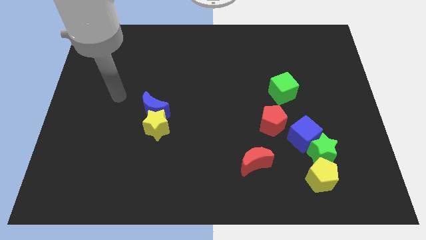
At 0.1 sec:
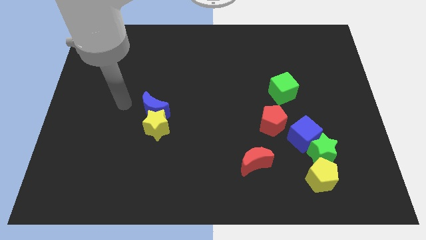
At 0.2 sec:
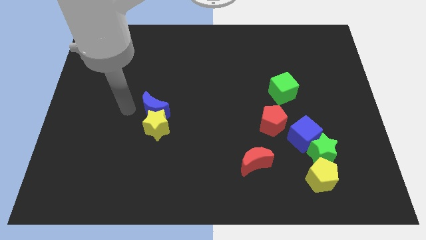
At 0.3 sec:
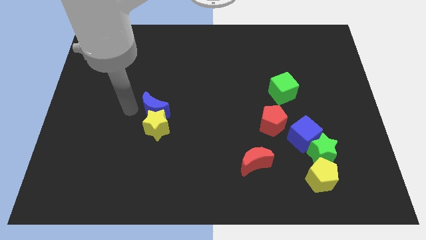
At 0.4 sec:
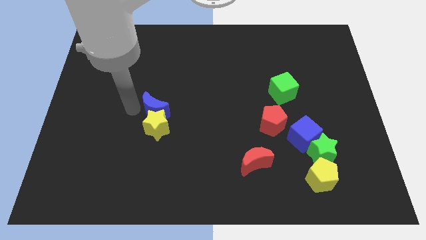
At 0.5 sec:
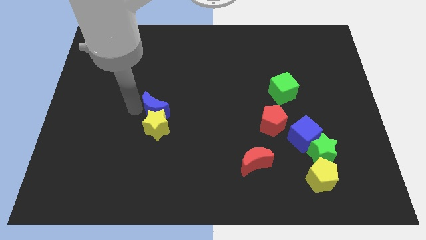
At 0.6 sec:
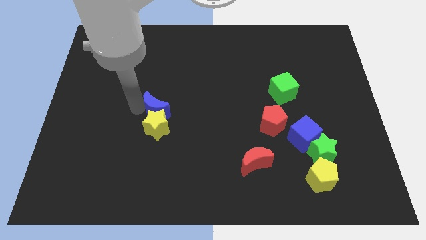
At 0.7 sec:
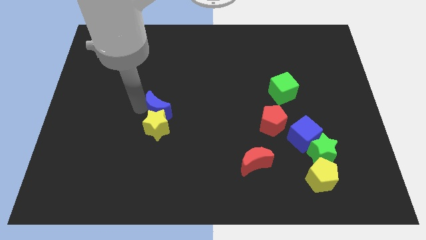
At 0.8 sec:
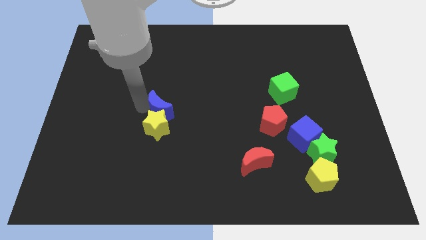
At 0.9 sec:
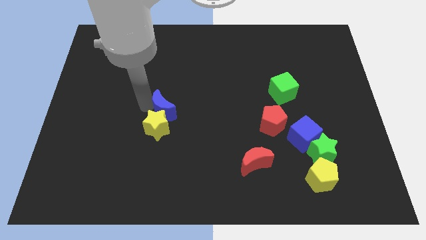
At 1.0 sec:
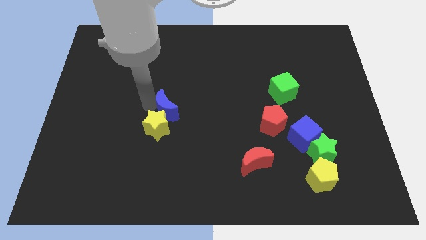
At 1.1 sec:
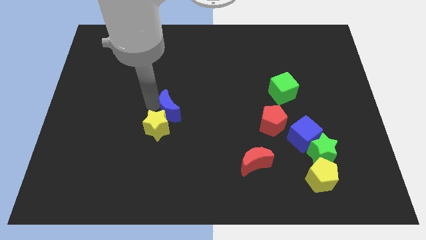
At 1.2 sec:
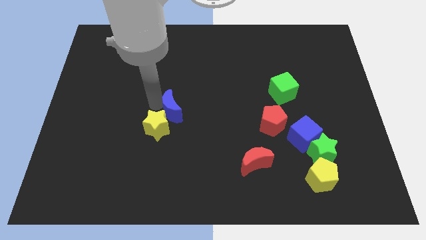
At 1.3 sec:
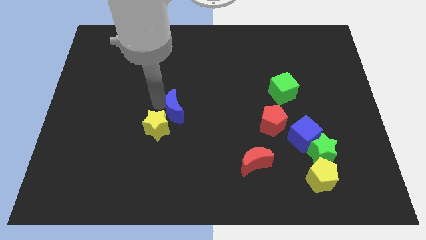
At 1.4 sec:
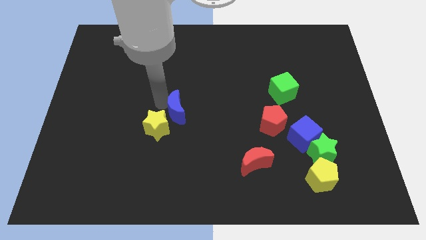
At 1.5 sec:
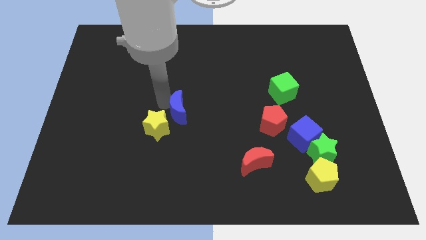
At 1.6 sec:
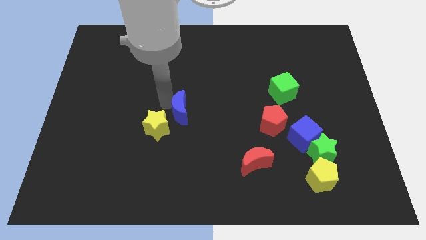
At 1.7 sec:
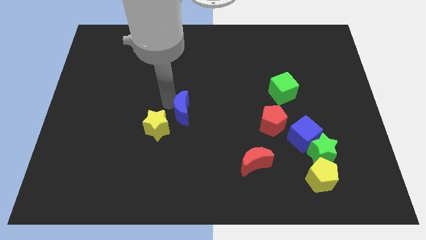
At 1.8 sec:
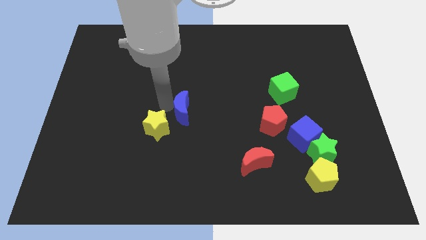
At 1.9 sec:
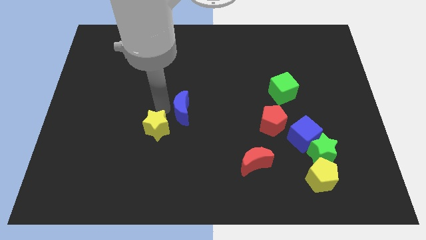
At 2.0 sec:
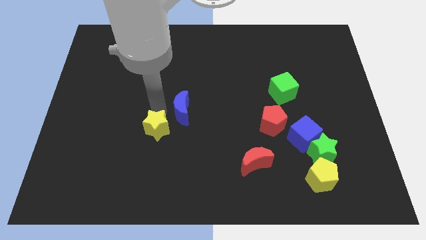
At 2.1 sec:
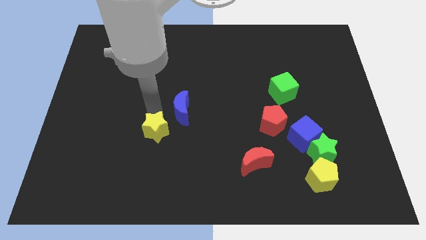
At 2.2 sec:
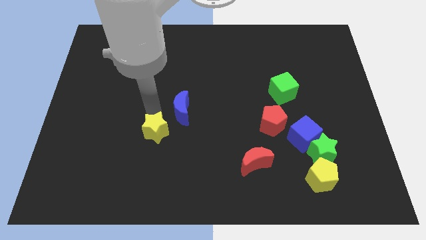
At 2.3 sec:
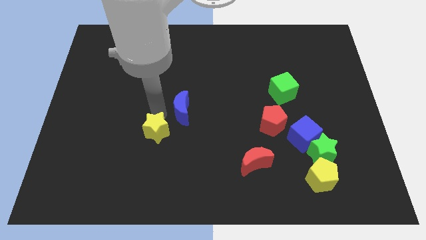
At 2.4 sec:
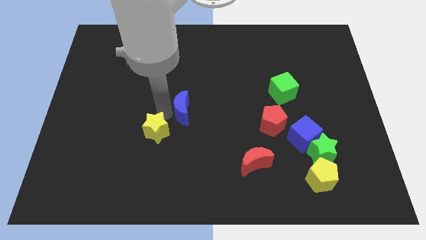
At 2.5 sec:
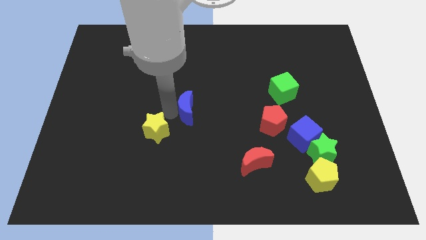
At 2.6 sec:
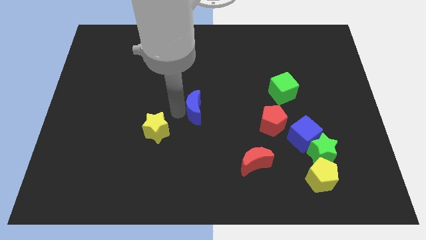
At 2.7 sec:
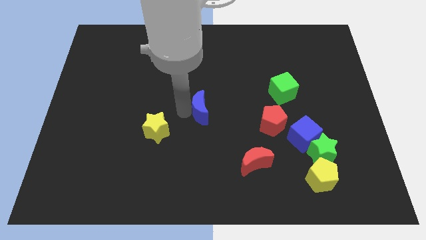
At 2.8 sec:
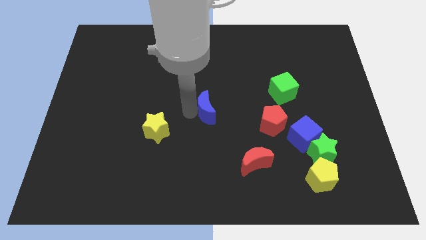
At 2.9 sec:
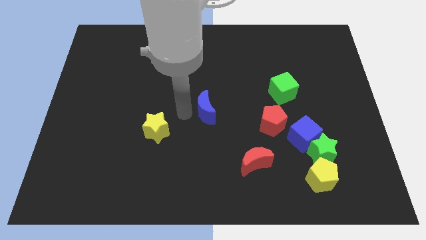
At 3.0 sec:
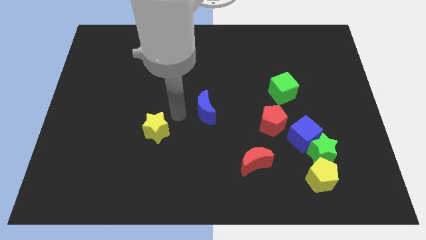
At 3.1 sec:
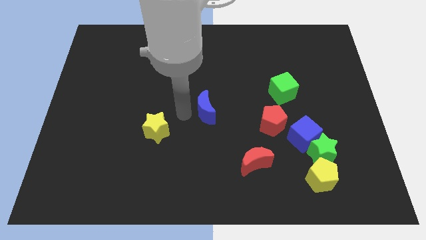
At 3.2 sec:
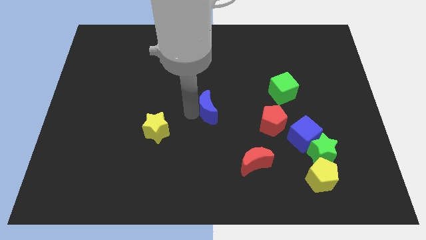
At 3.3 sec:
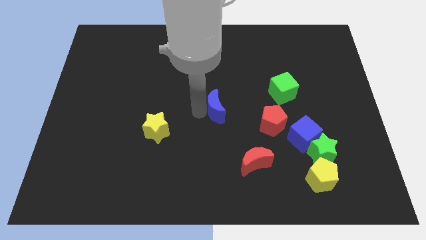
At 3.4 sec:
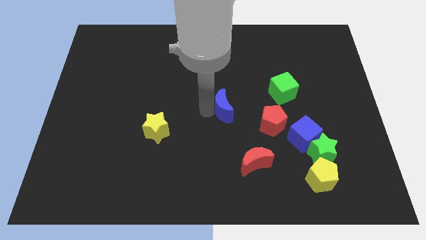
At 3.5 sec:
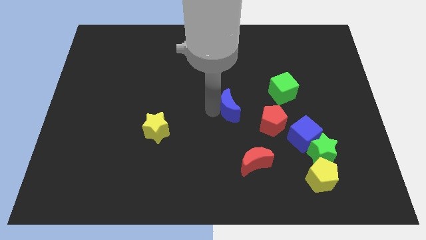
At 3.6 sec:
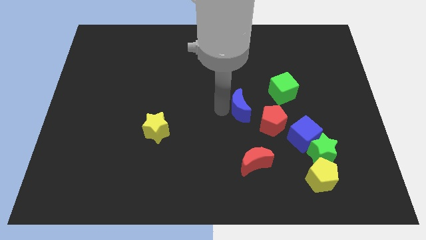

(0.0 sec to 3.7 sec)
push the blue moon right

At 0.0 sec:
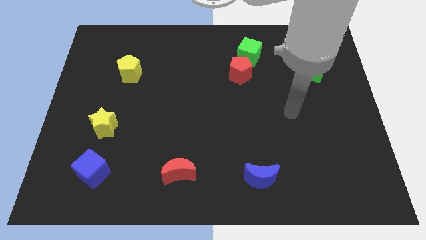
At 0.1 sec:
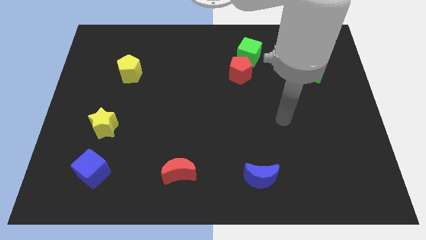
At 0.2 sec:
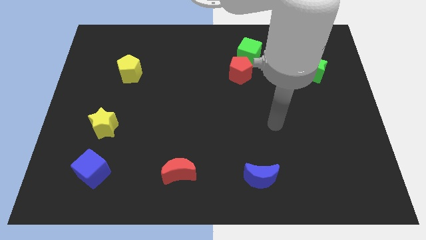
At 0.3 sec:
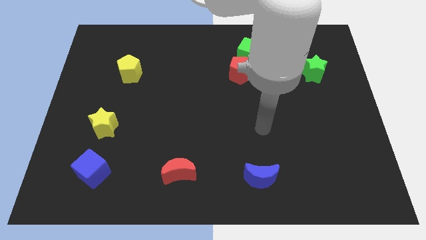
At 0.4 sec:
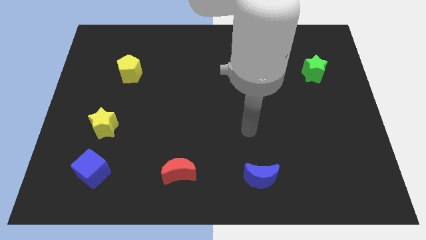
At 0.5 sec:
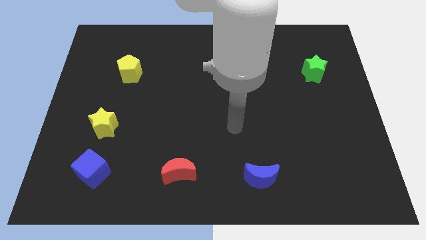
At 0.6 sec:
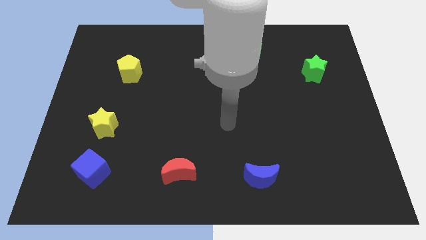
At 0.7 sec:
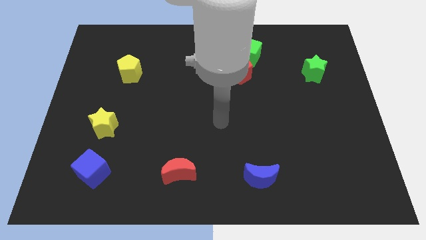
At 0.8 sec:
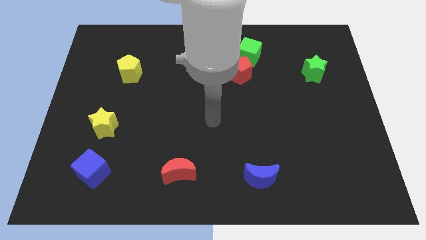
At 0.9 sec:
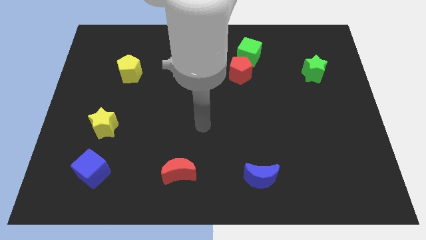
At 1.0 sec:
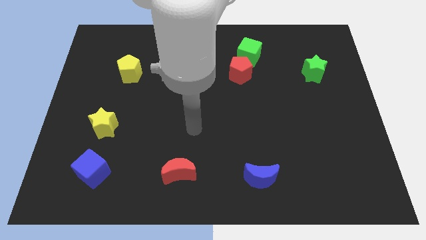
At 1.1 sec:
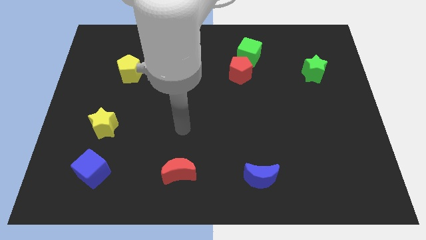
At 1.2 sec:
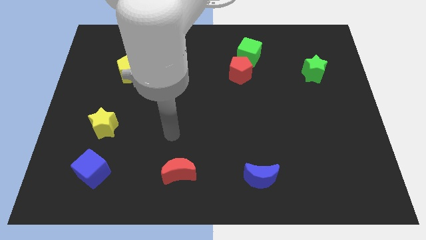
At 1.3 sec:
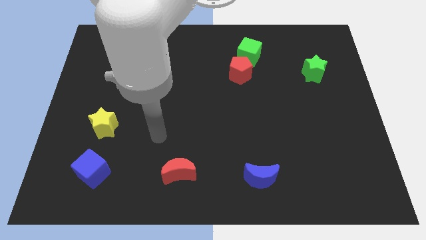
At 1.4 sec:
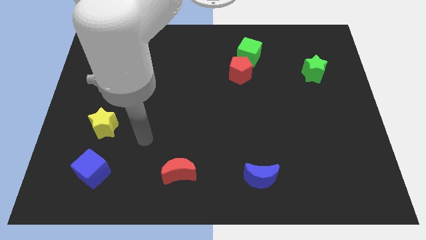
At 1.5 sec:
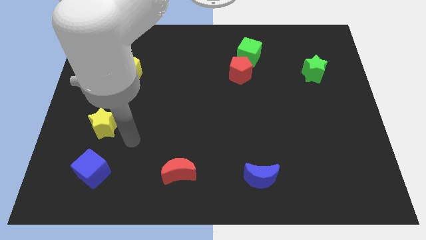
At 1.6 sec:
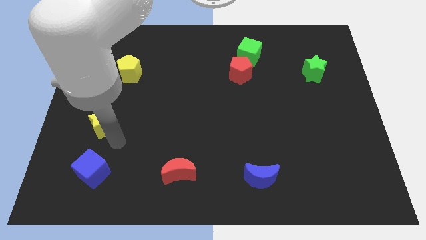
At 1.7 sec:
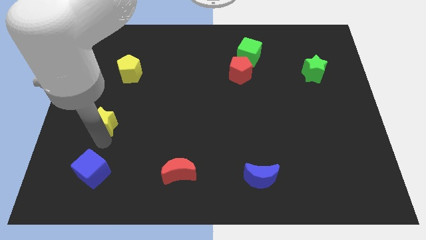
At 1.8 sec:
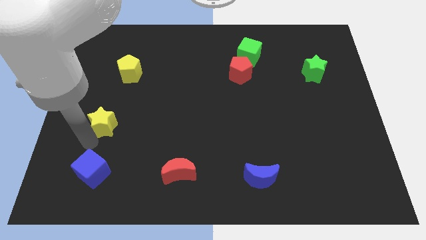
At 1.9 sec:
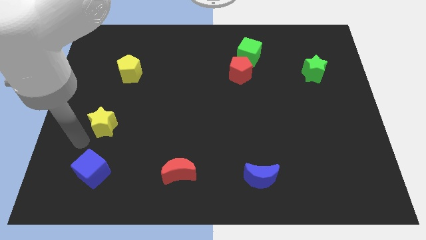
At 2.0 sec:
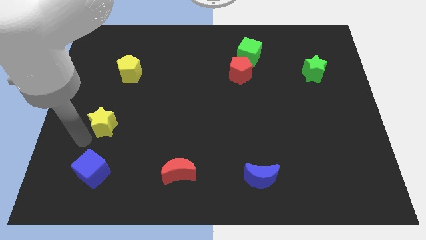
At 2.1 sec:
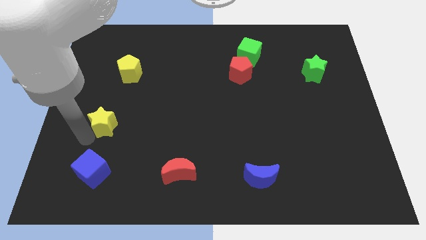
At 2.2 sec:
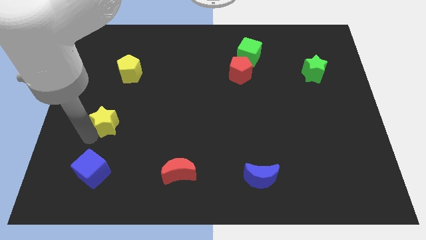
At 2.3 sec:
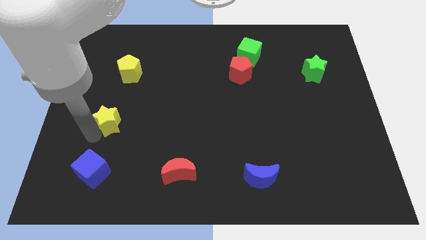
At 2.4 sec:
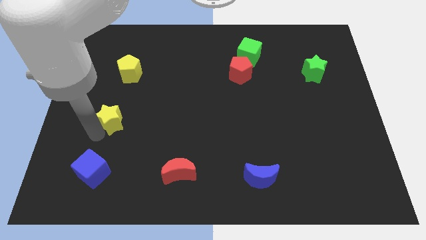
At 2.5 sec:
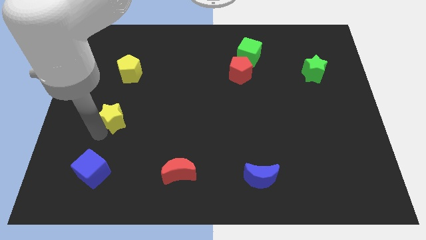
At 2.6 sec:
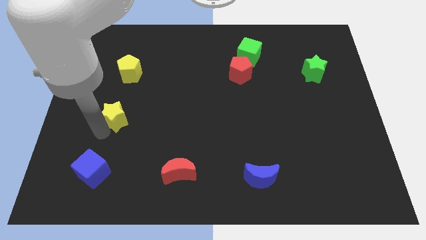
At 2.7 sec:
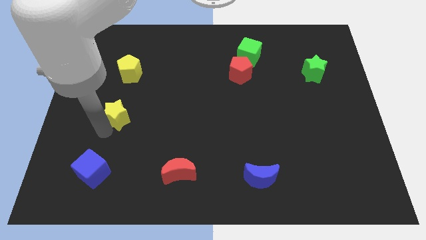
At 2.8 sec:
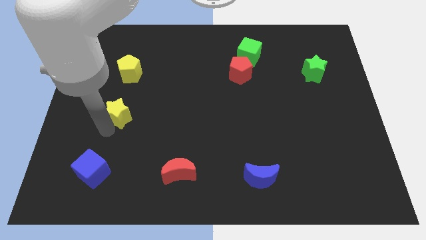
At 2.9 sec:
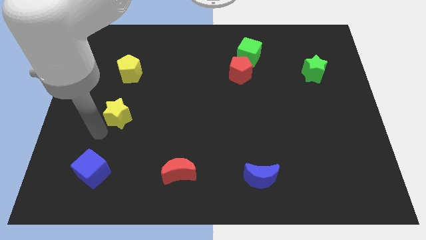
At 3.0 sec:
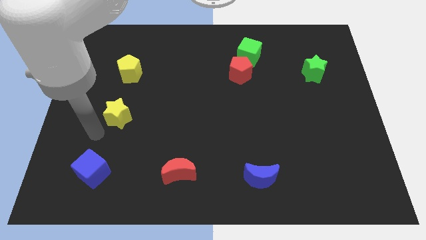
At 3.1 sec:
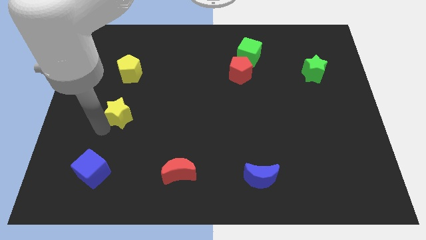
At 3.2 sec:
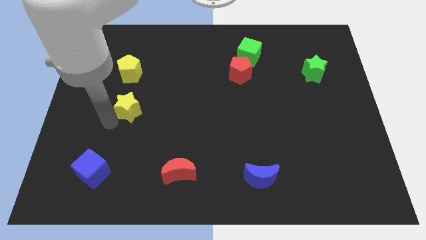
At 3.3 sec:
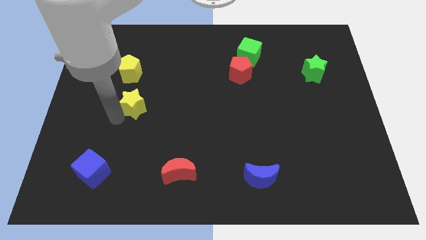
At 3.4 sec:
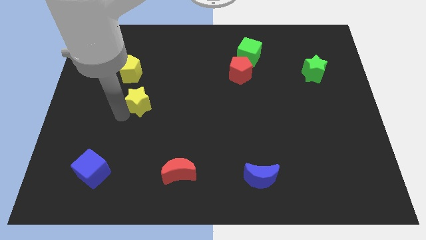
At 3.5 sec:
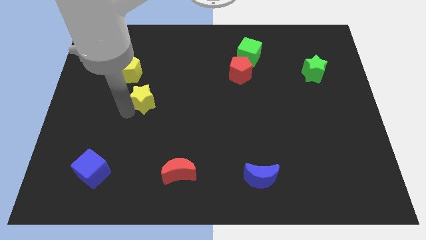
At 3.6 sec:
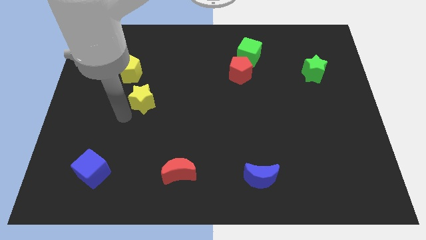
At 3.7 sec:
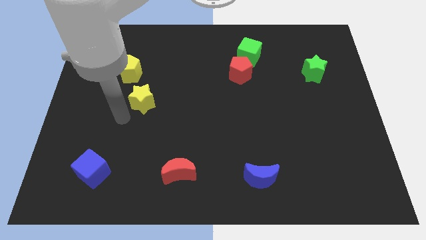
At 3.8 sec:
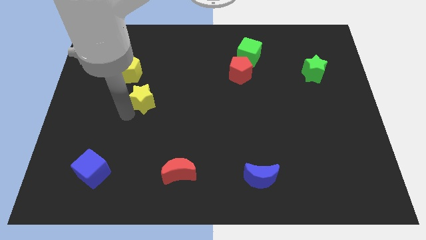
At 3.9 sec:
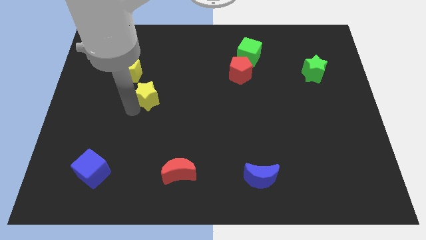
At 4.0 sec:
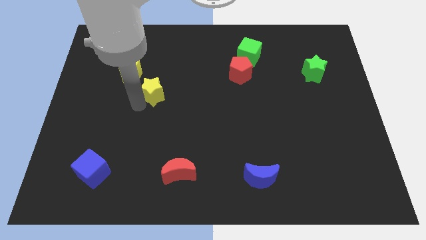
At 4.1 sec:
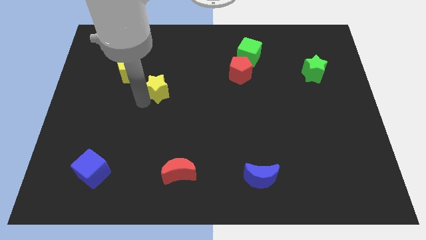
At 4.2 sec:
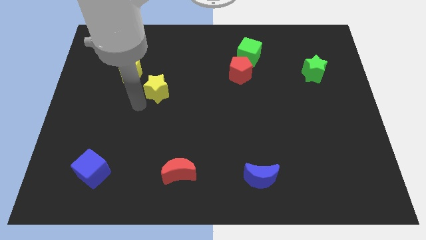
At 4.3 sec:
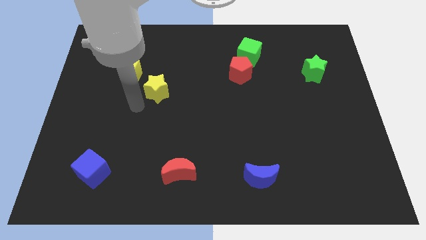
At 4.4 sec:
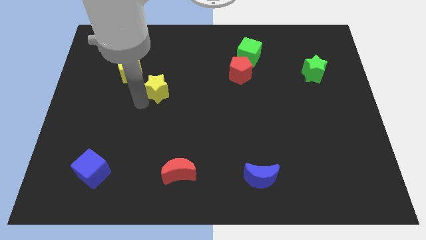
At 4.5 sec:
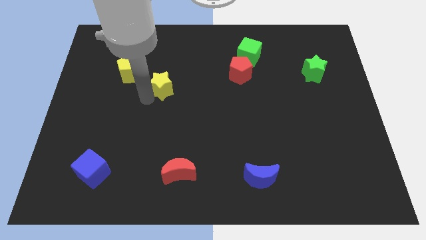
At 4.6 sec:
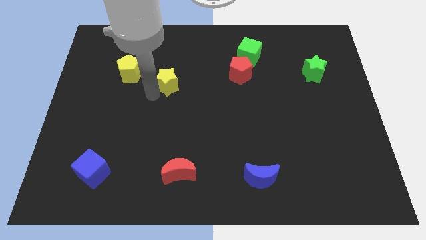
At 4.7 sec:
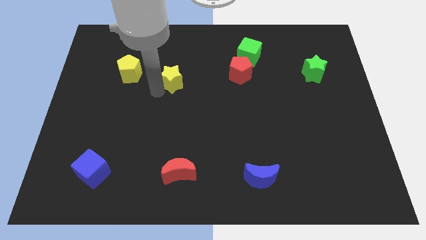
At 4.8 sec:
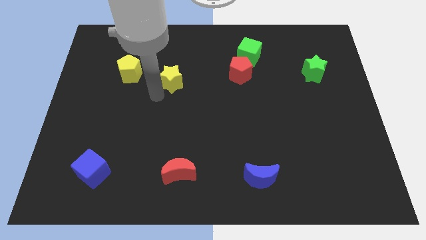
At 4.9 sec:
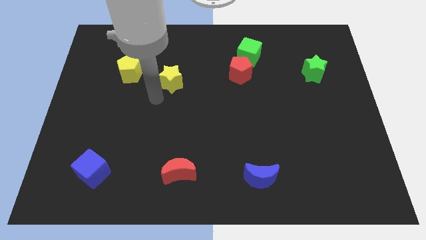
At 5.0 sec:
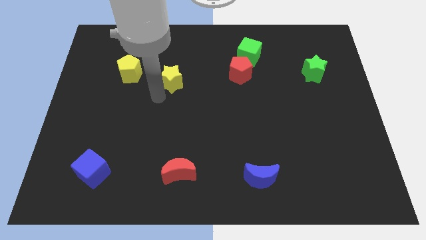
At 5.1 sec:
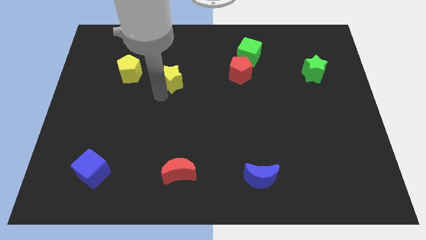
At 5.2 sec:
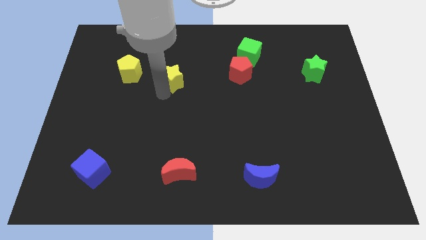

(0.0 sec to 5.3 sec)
slide the yellow star upwards and then to the right
